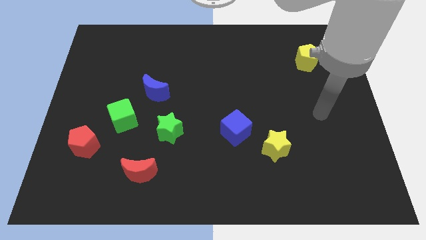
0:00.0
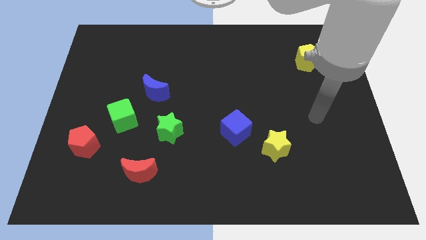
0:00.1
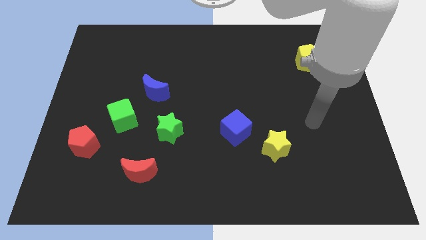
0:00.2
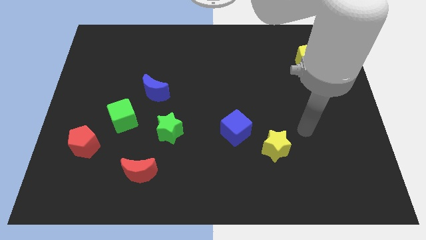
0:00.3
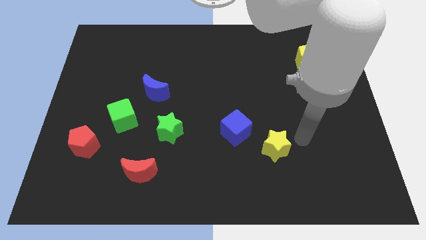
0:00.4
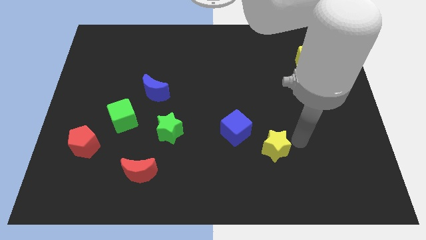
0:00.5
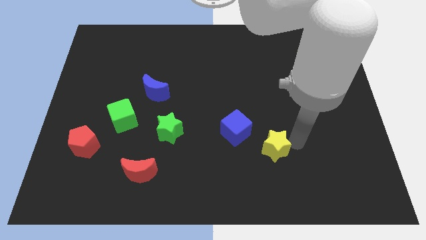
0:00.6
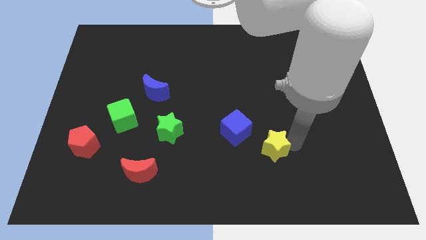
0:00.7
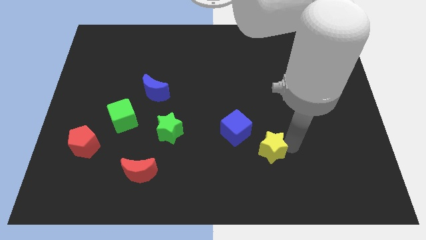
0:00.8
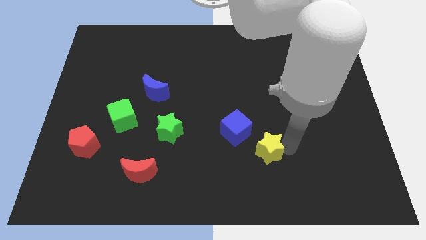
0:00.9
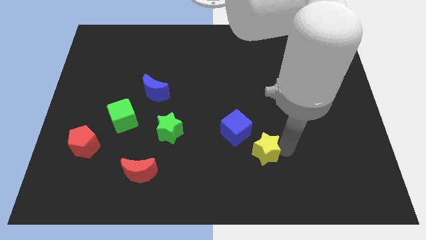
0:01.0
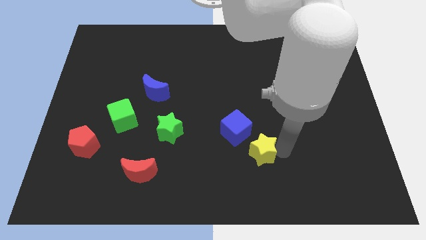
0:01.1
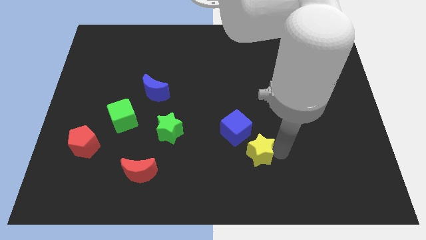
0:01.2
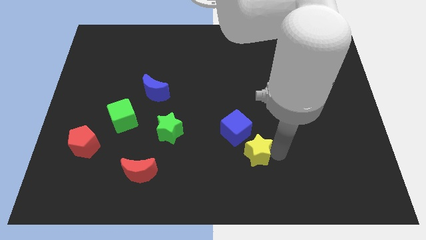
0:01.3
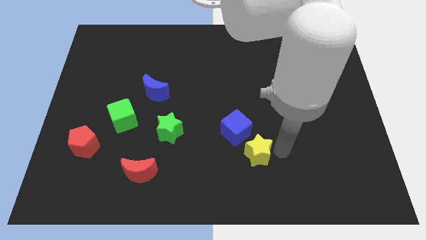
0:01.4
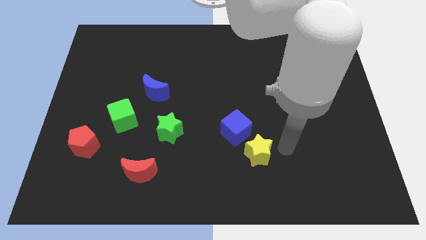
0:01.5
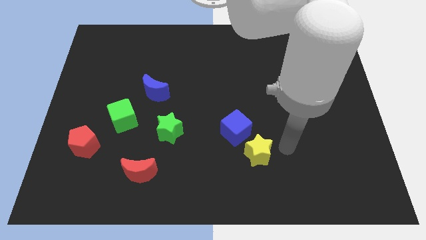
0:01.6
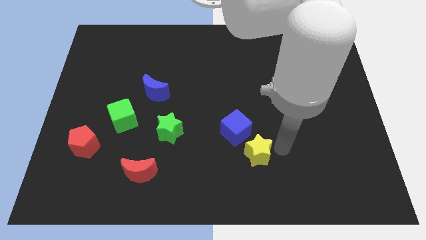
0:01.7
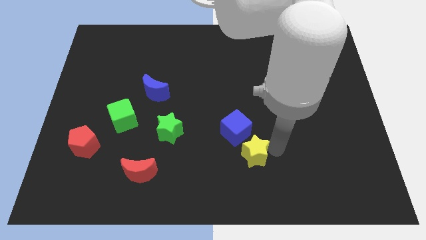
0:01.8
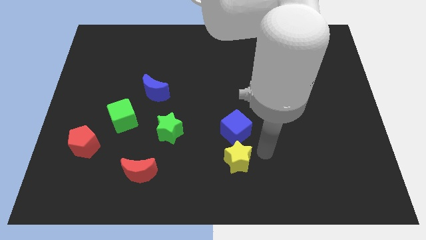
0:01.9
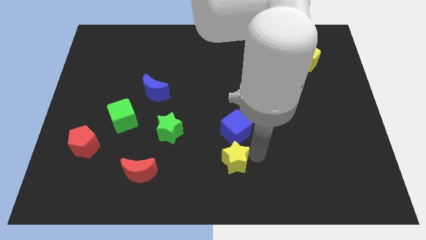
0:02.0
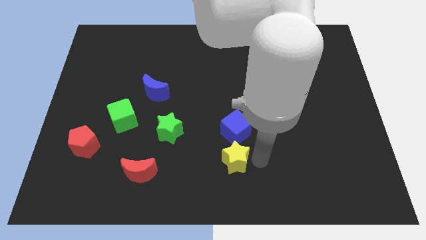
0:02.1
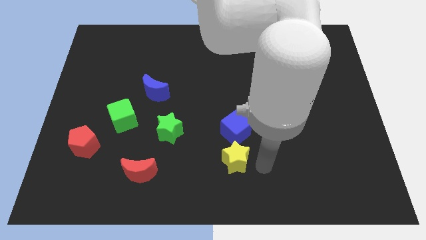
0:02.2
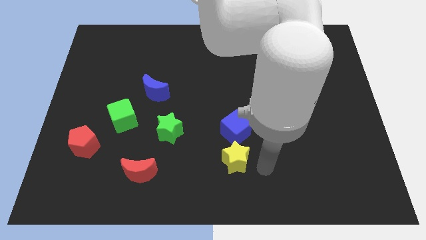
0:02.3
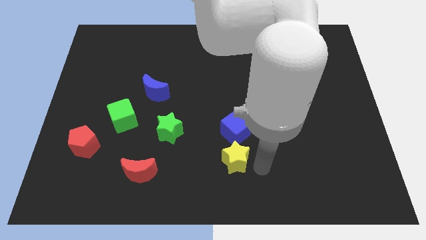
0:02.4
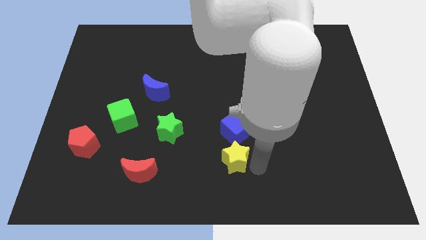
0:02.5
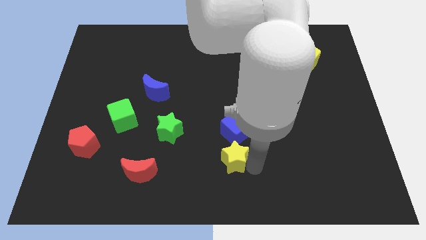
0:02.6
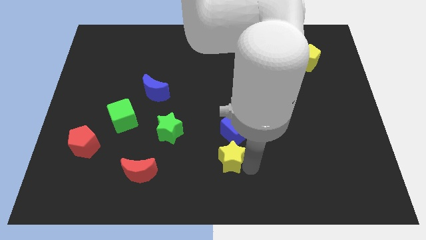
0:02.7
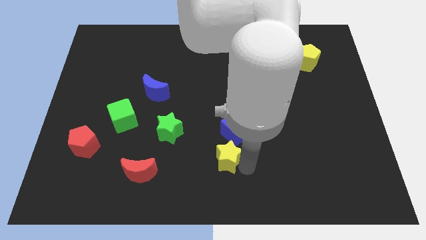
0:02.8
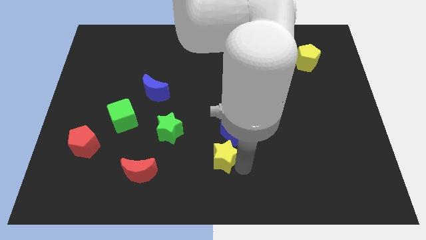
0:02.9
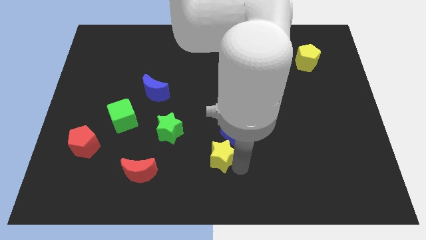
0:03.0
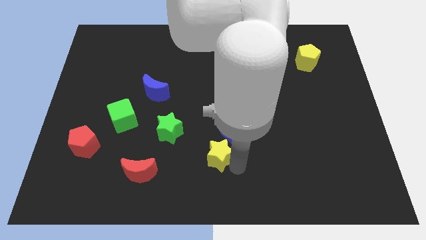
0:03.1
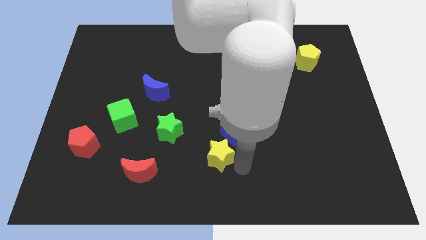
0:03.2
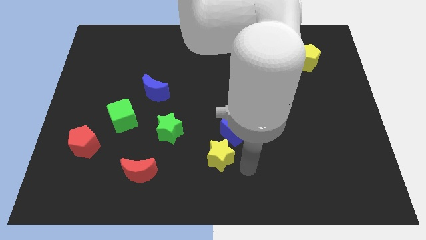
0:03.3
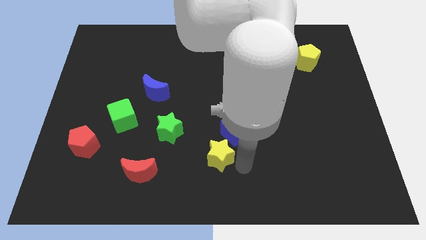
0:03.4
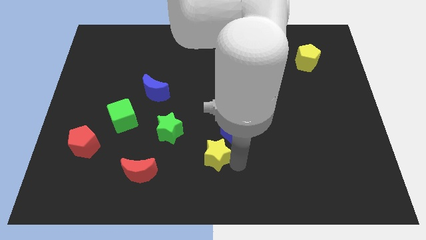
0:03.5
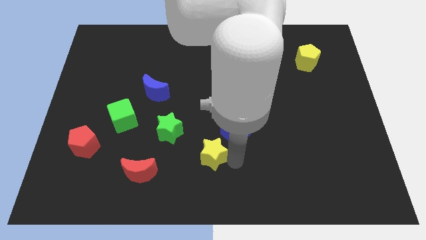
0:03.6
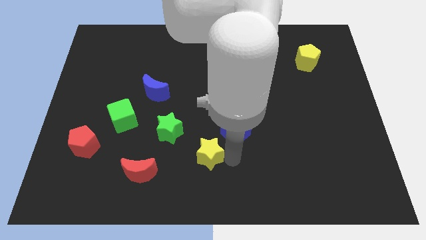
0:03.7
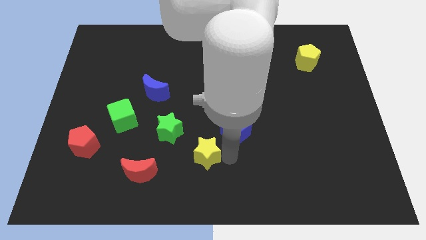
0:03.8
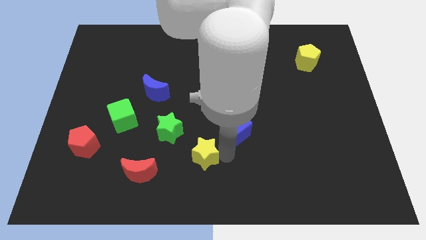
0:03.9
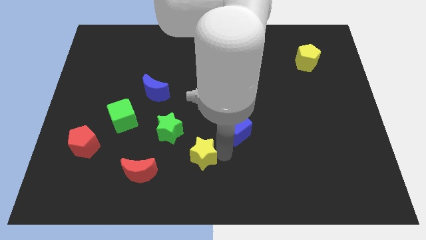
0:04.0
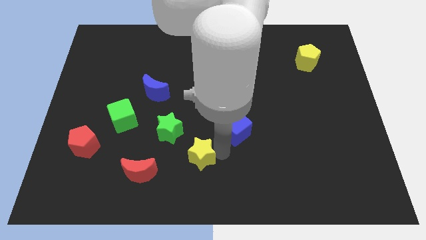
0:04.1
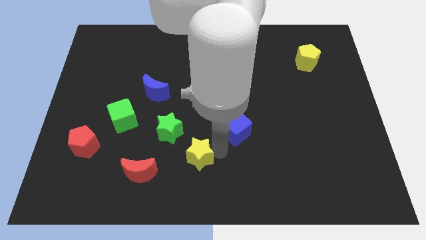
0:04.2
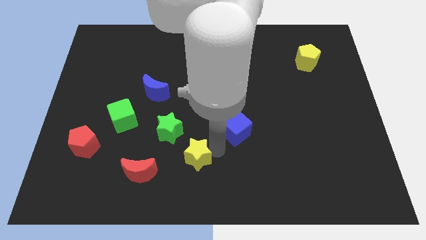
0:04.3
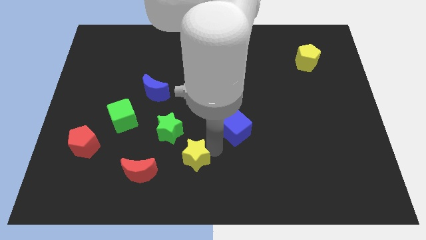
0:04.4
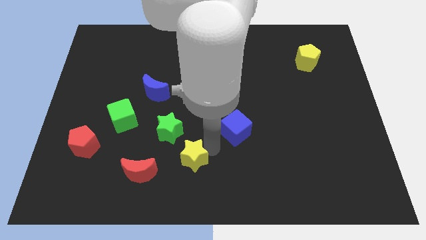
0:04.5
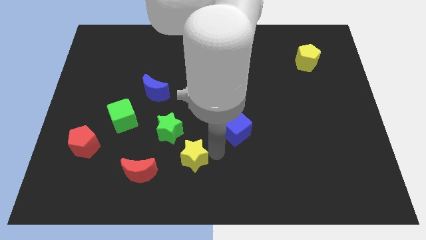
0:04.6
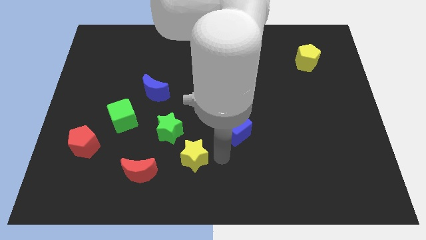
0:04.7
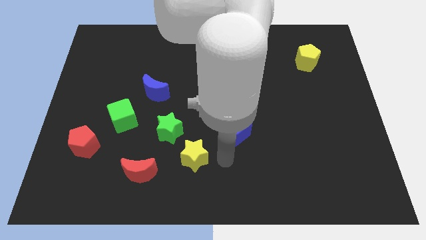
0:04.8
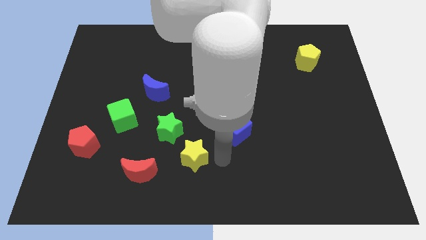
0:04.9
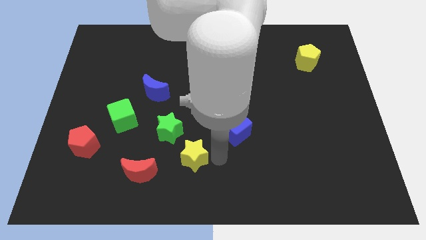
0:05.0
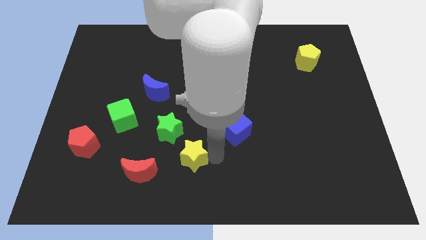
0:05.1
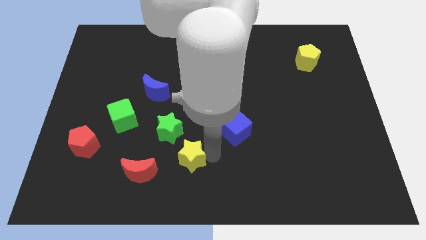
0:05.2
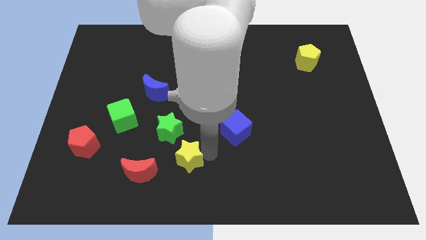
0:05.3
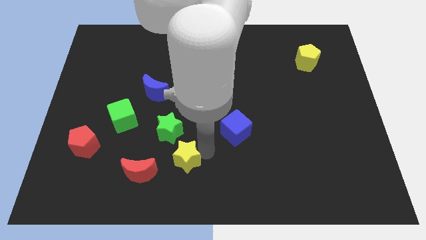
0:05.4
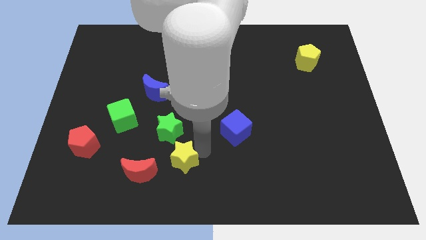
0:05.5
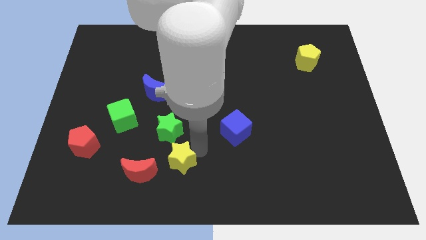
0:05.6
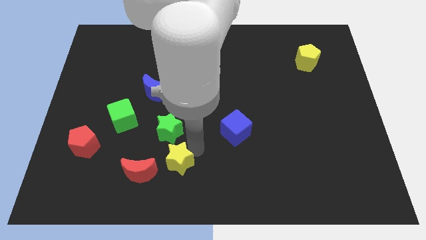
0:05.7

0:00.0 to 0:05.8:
move the yellow star to the left

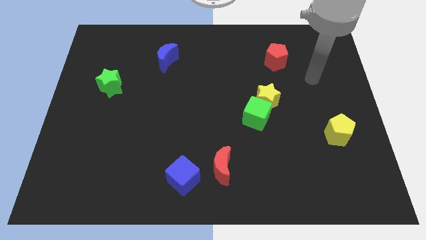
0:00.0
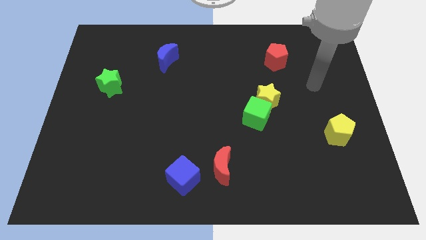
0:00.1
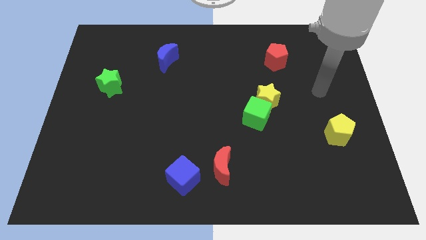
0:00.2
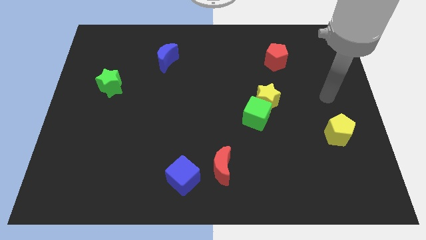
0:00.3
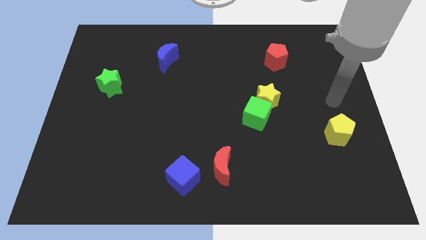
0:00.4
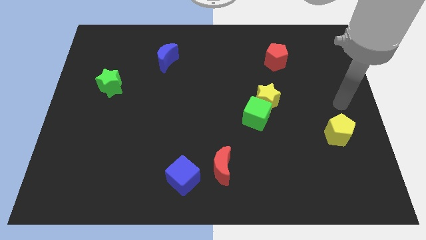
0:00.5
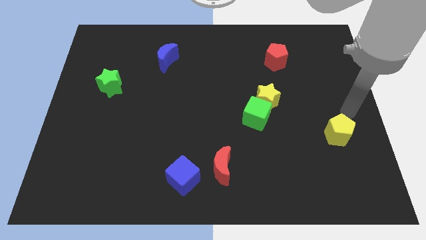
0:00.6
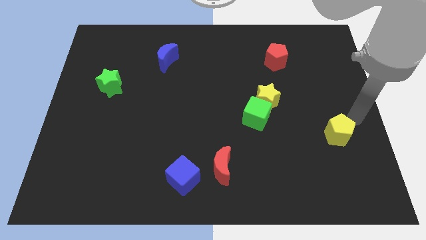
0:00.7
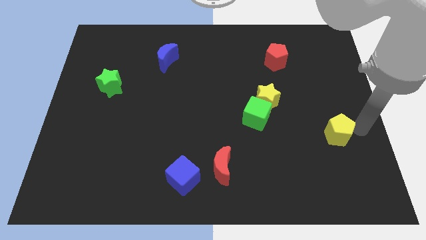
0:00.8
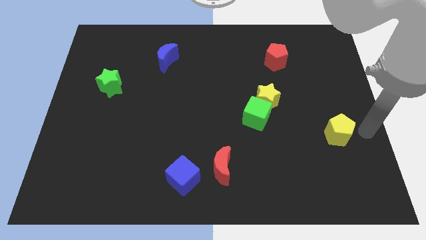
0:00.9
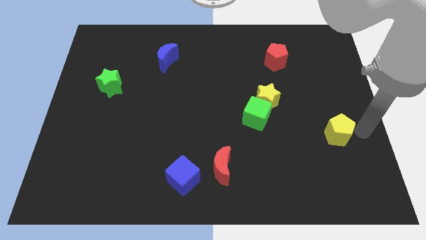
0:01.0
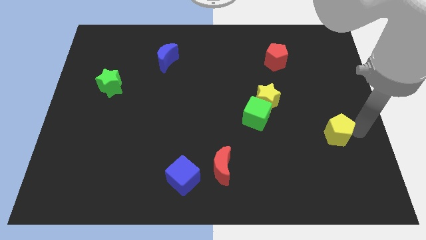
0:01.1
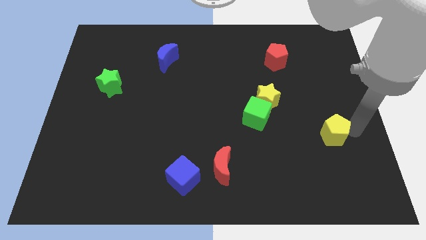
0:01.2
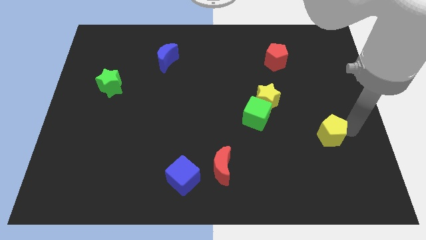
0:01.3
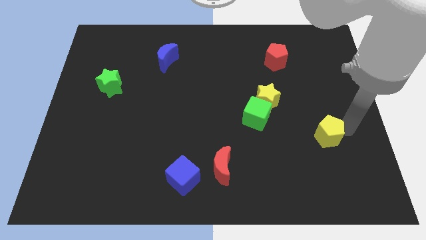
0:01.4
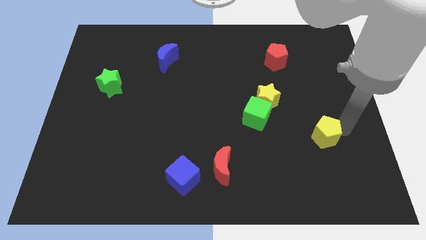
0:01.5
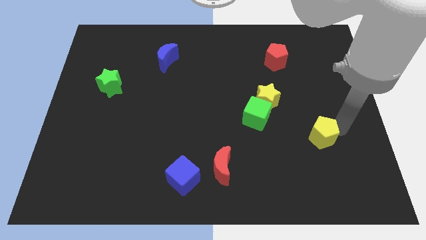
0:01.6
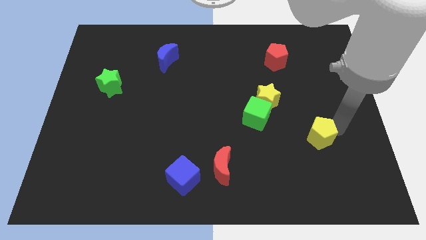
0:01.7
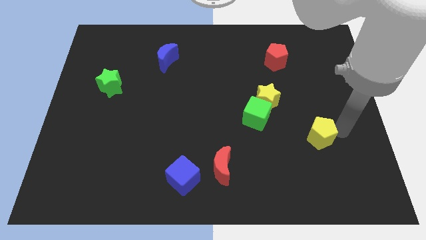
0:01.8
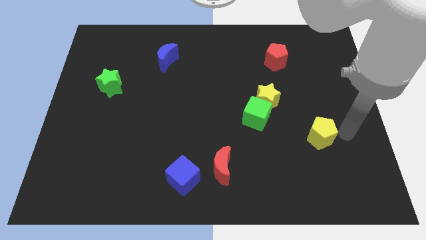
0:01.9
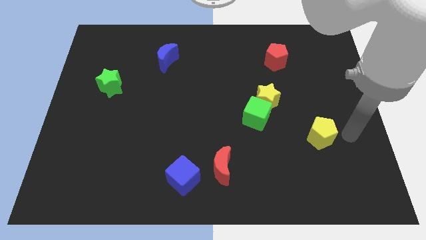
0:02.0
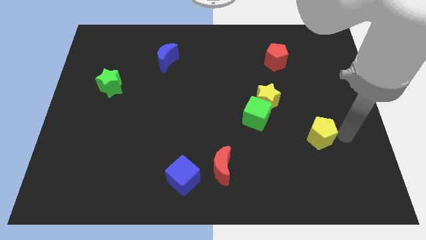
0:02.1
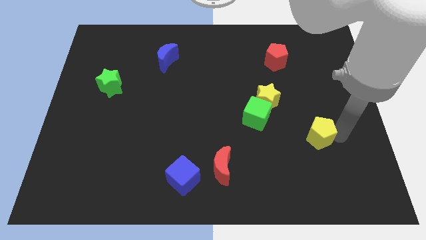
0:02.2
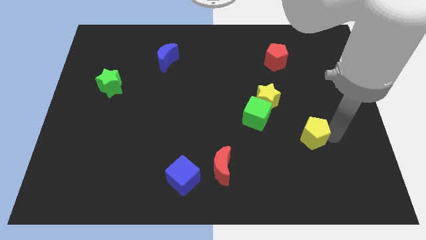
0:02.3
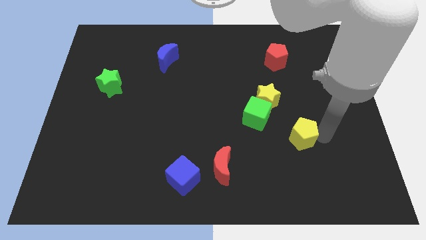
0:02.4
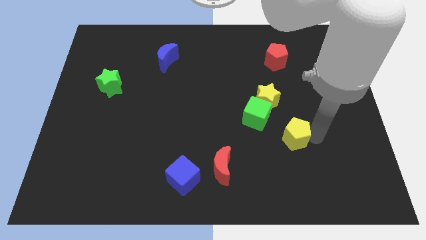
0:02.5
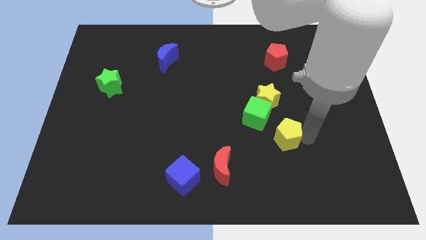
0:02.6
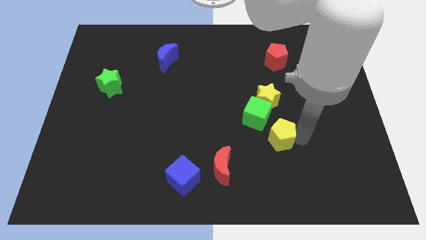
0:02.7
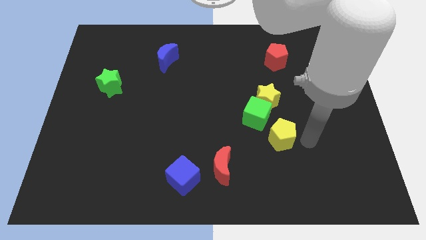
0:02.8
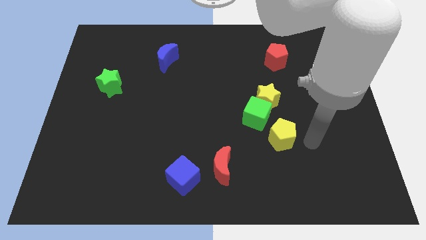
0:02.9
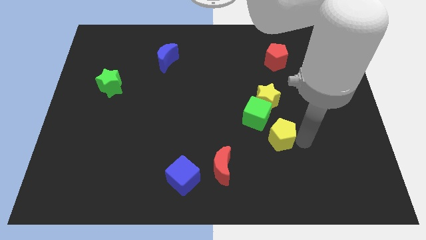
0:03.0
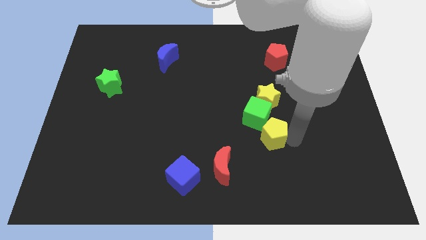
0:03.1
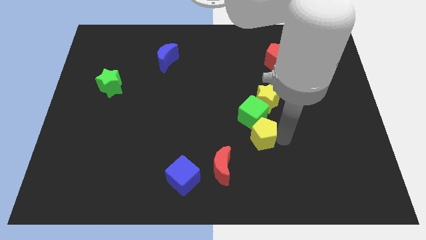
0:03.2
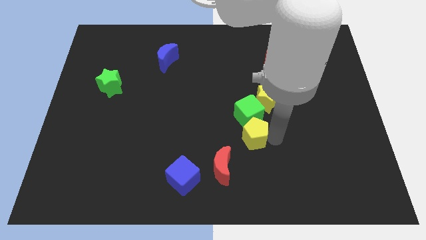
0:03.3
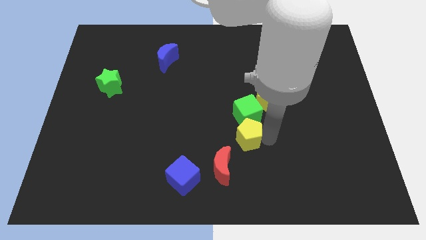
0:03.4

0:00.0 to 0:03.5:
slide the yellow pentagon left
